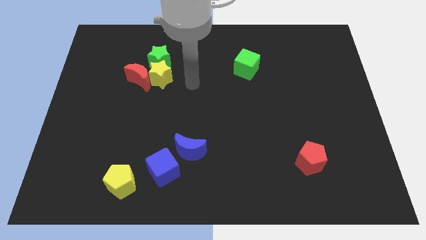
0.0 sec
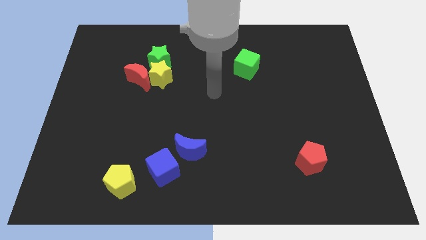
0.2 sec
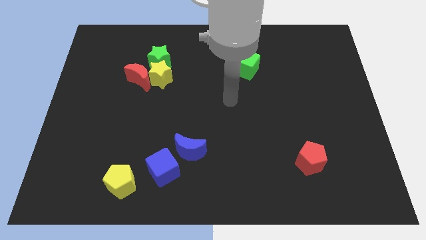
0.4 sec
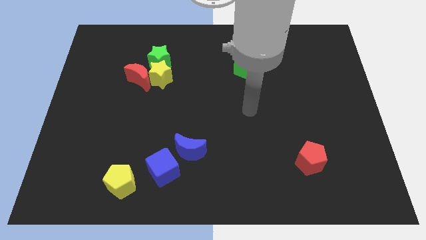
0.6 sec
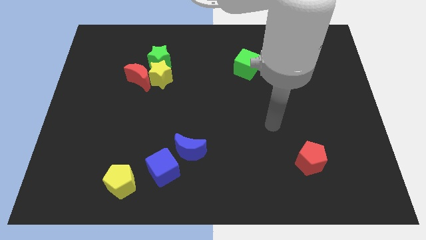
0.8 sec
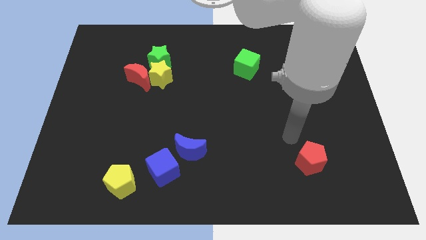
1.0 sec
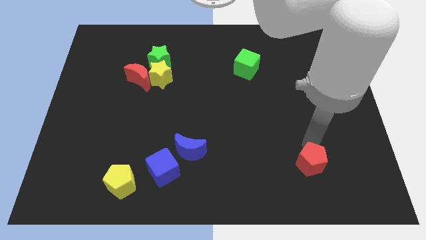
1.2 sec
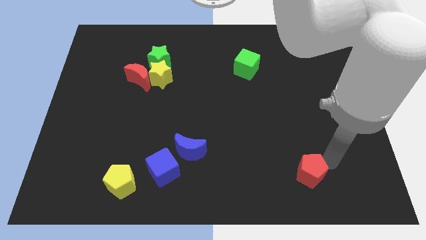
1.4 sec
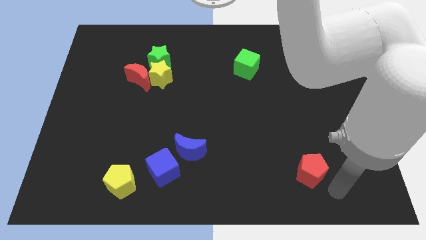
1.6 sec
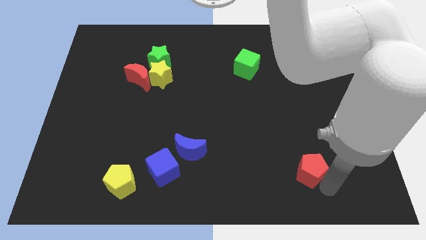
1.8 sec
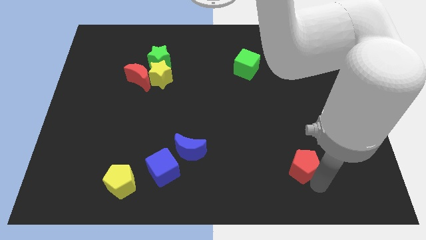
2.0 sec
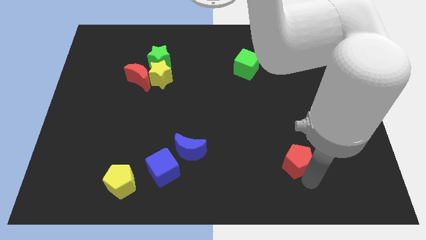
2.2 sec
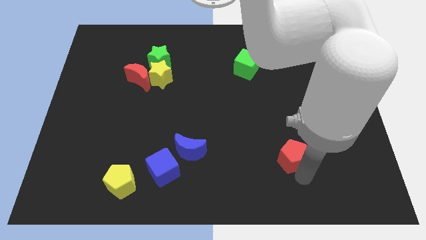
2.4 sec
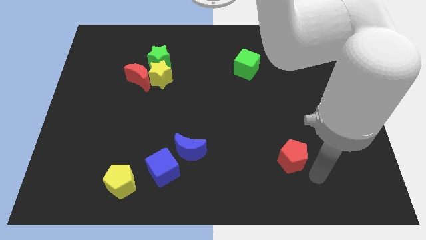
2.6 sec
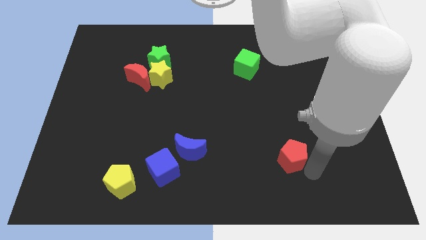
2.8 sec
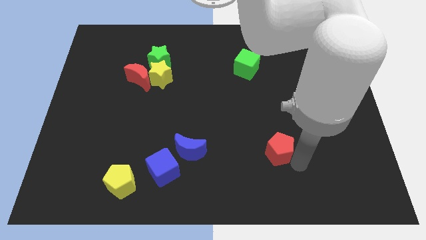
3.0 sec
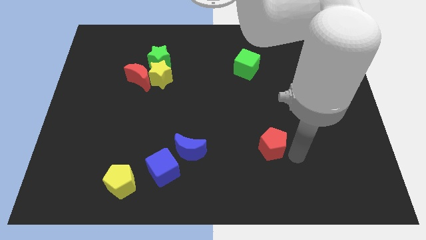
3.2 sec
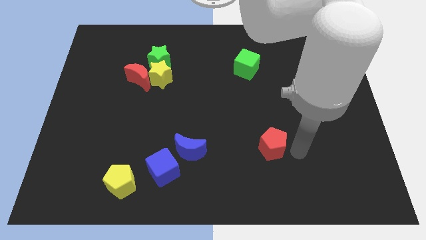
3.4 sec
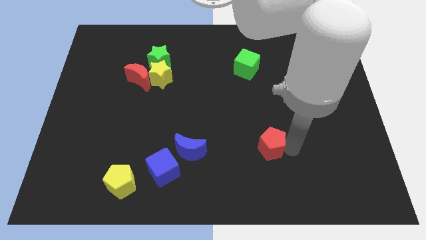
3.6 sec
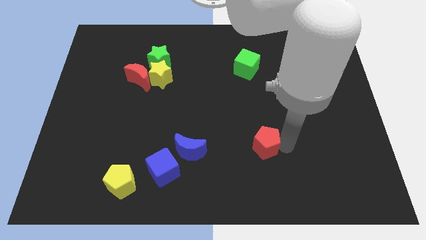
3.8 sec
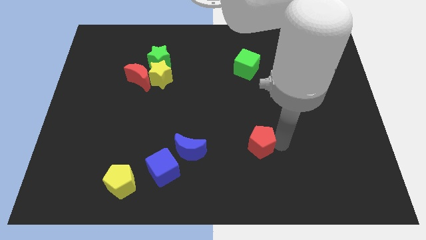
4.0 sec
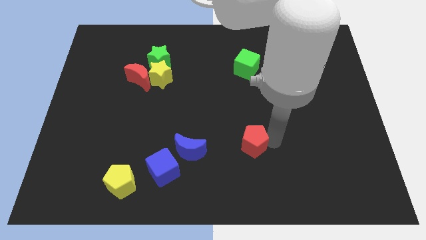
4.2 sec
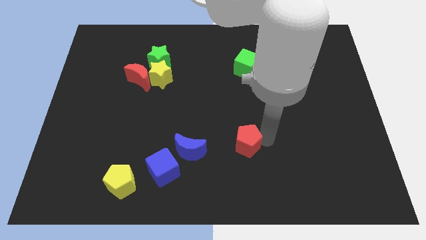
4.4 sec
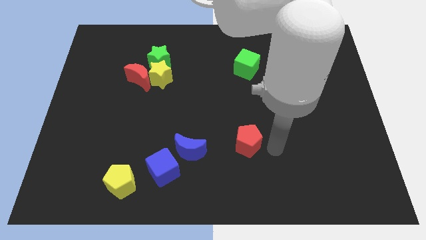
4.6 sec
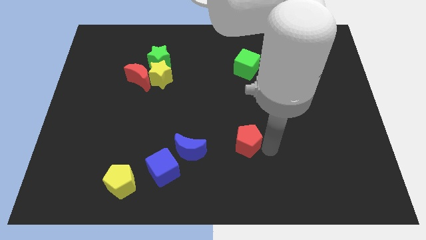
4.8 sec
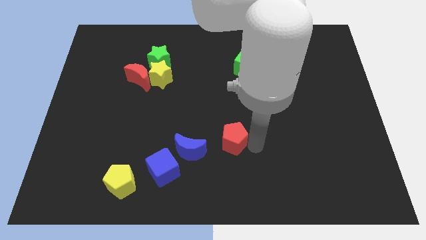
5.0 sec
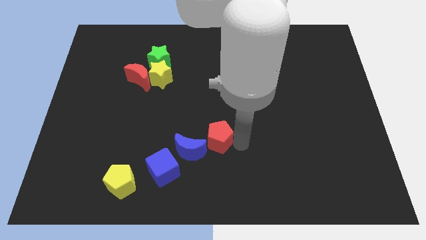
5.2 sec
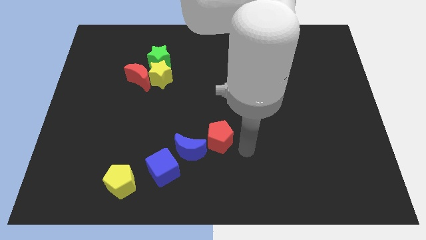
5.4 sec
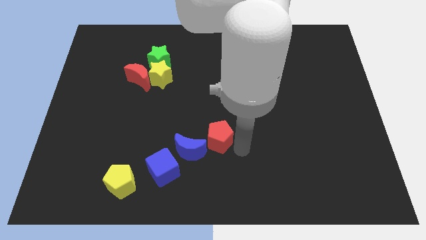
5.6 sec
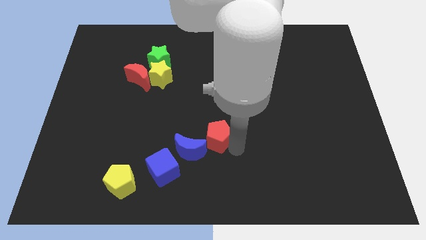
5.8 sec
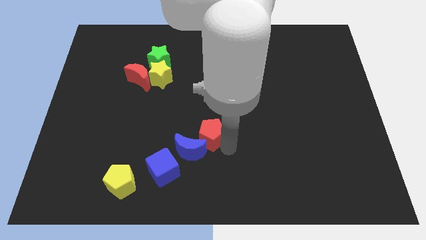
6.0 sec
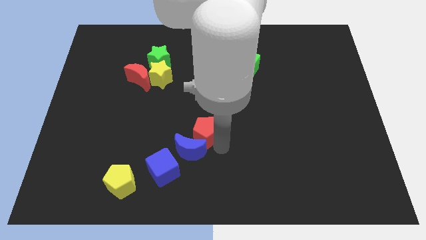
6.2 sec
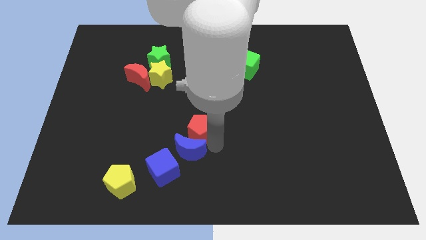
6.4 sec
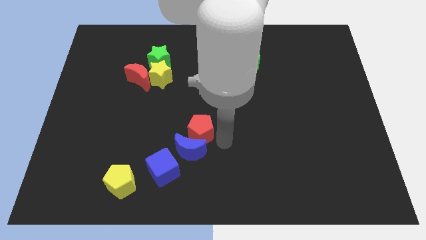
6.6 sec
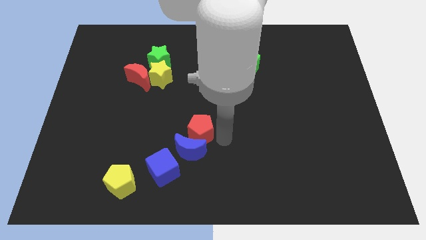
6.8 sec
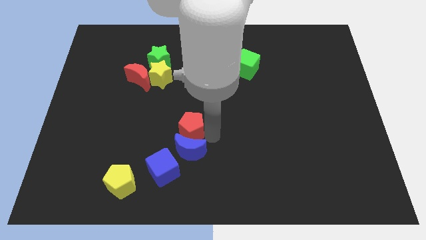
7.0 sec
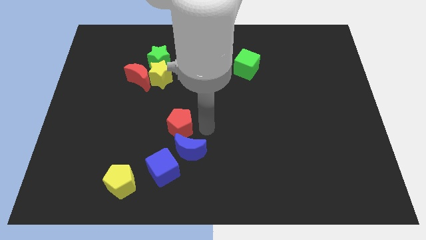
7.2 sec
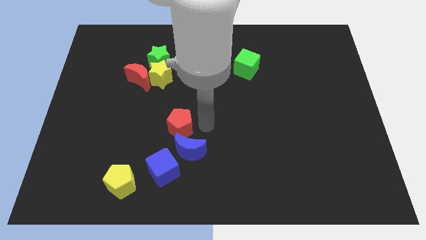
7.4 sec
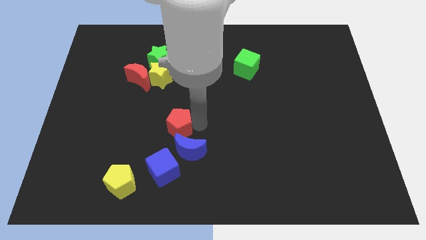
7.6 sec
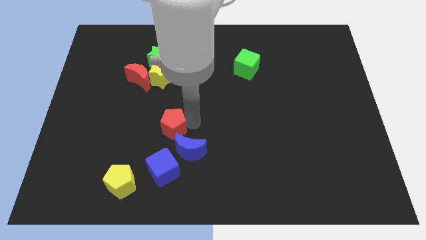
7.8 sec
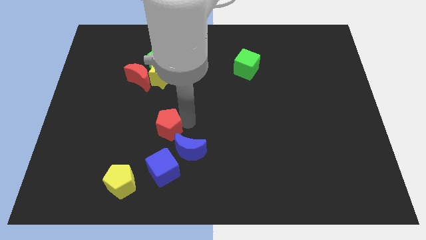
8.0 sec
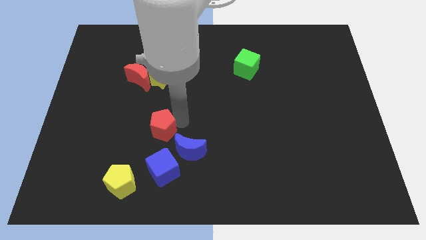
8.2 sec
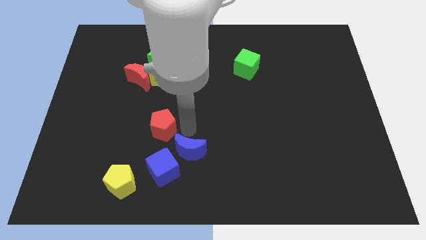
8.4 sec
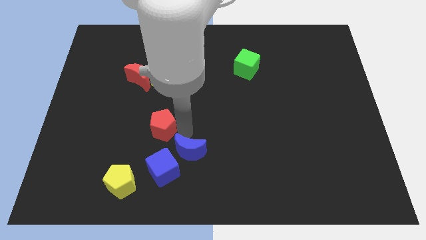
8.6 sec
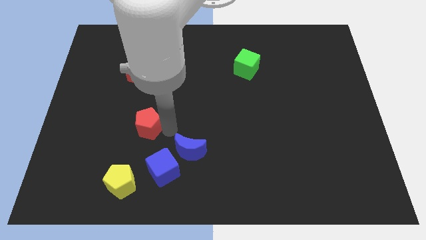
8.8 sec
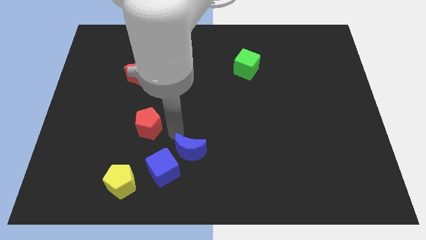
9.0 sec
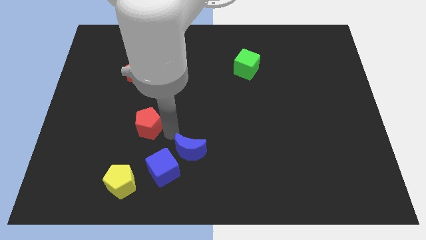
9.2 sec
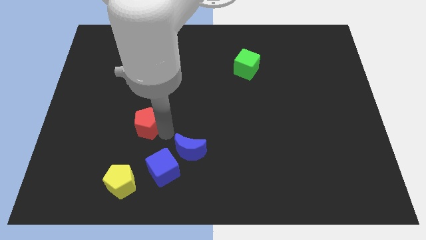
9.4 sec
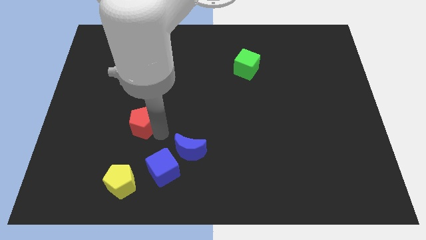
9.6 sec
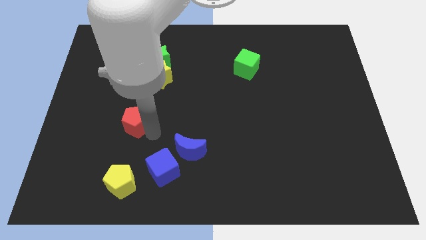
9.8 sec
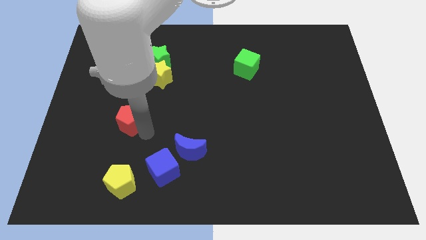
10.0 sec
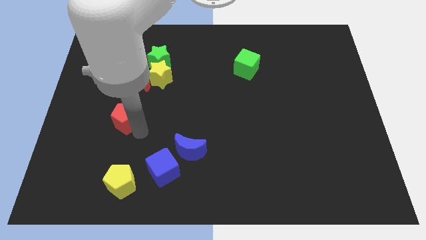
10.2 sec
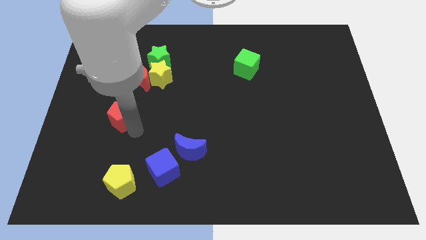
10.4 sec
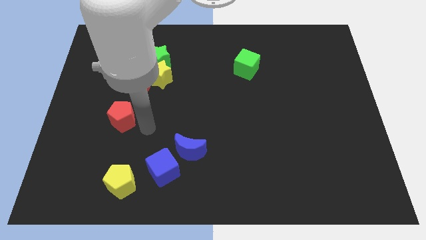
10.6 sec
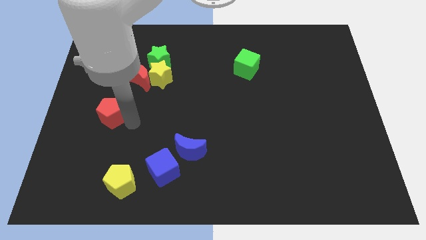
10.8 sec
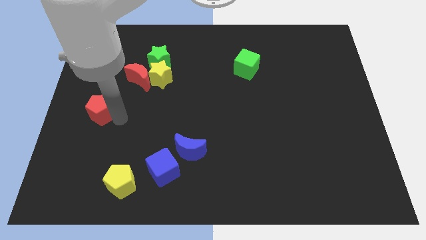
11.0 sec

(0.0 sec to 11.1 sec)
move the red pentagon to the left side
